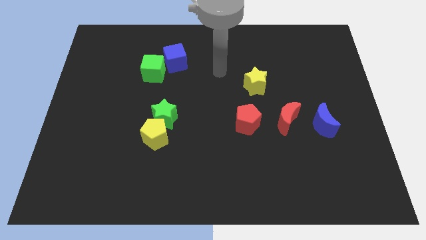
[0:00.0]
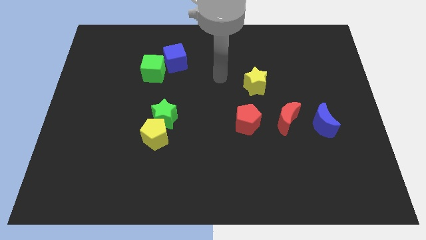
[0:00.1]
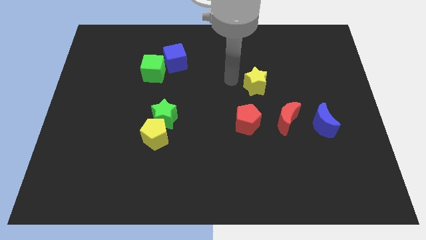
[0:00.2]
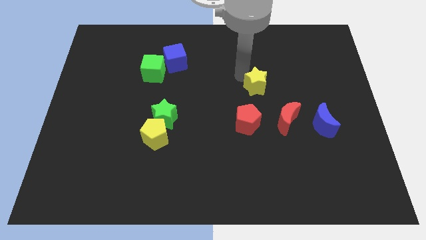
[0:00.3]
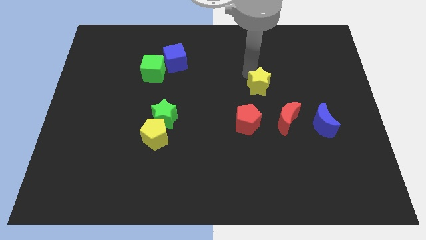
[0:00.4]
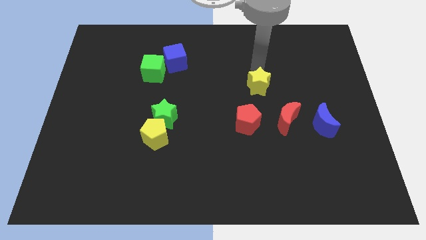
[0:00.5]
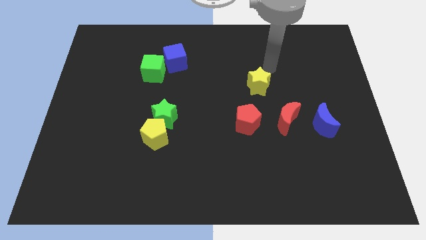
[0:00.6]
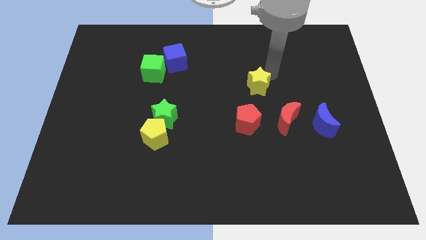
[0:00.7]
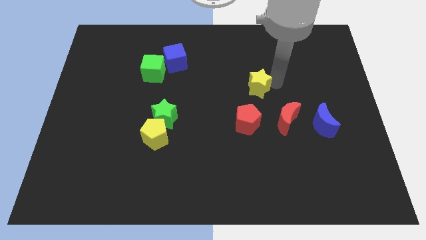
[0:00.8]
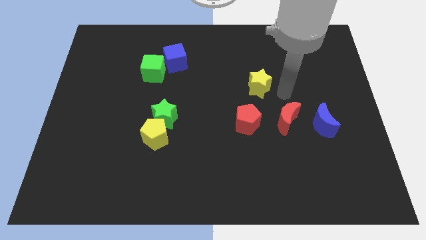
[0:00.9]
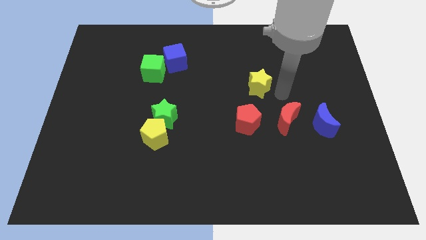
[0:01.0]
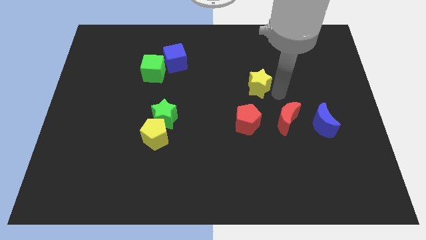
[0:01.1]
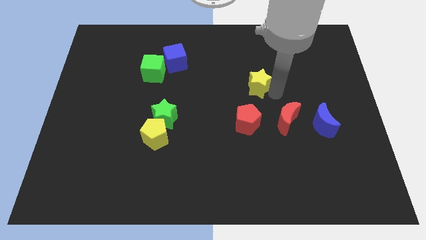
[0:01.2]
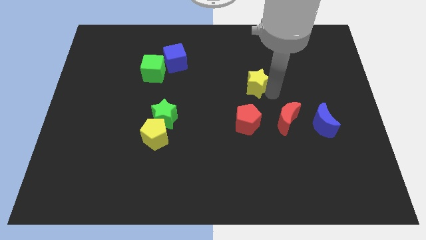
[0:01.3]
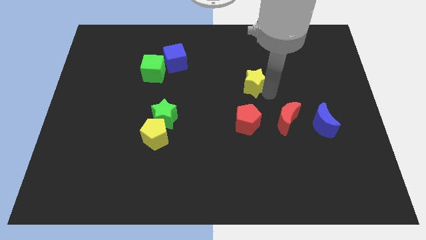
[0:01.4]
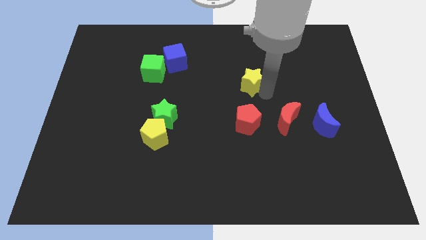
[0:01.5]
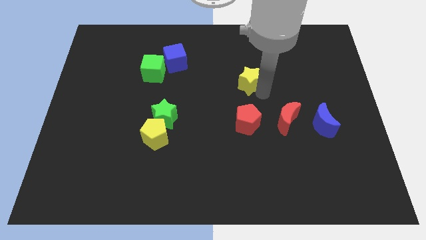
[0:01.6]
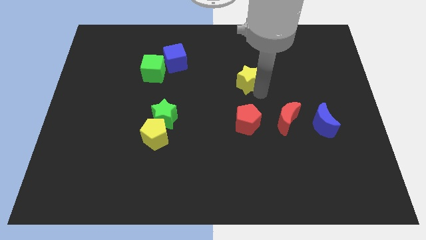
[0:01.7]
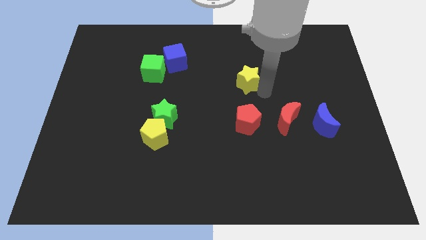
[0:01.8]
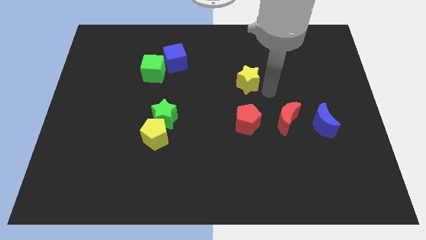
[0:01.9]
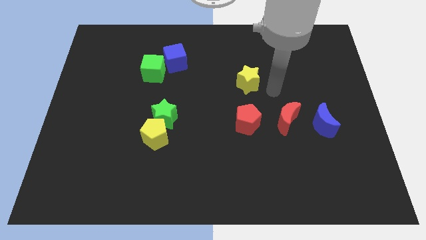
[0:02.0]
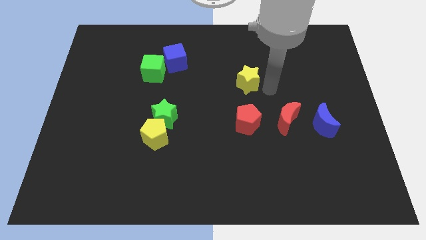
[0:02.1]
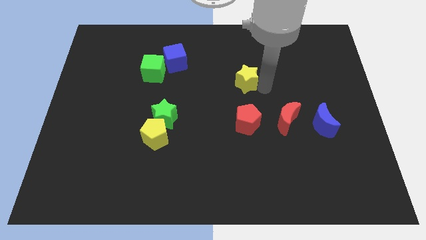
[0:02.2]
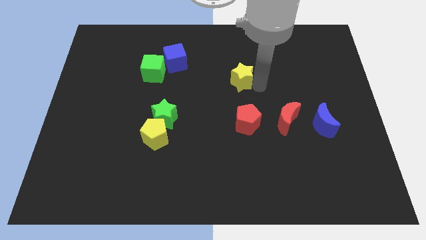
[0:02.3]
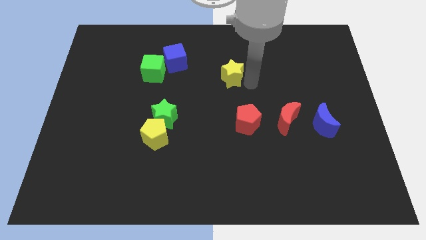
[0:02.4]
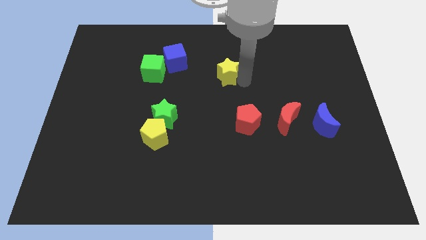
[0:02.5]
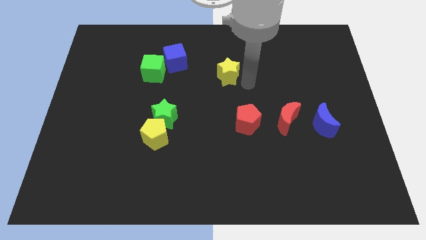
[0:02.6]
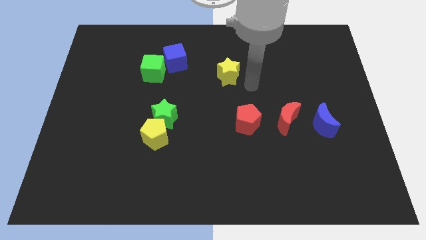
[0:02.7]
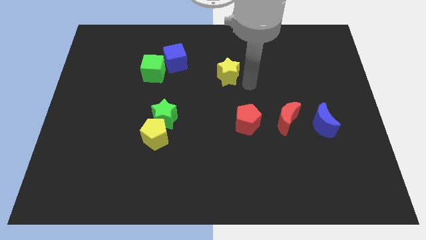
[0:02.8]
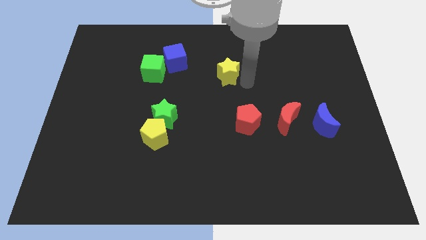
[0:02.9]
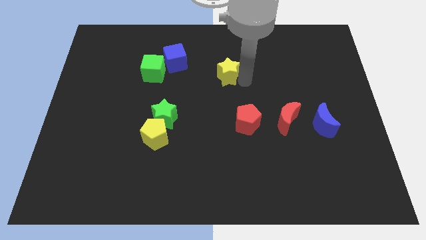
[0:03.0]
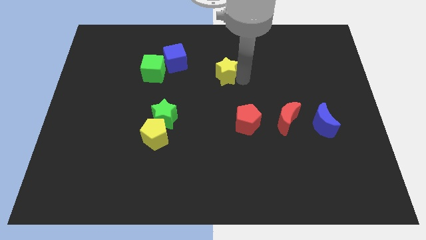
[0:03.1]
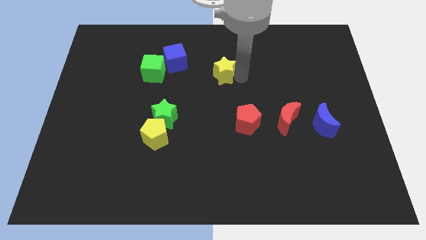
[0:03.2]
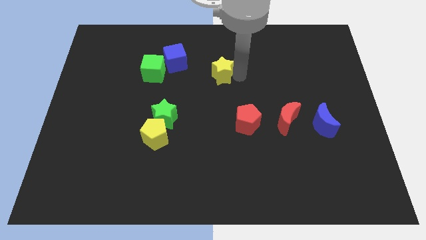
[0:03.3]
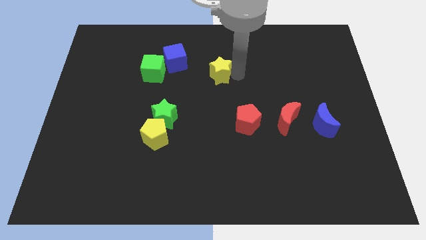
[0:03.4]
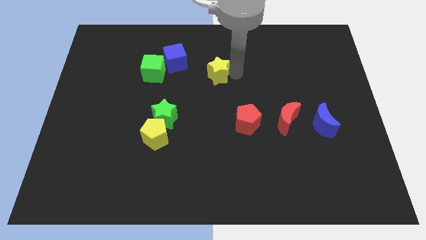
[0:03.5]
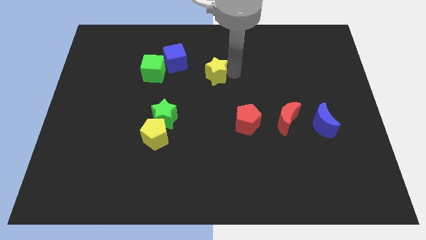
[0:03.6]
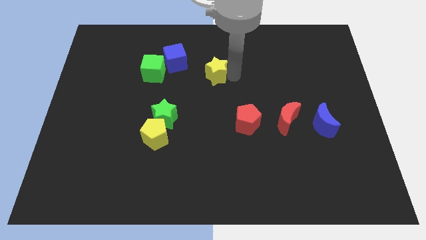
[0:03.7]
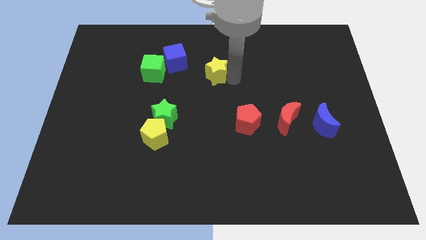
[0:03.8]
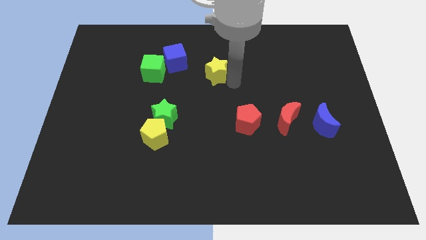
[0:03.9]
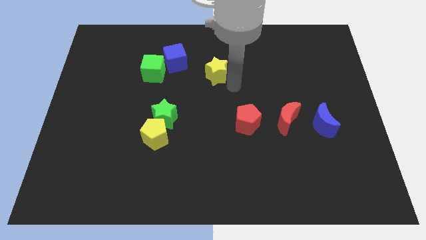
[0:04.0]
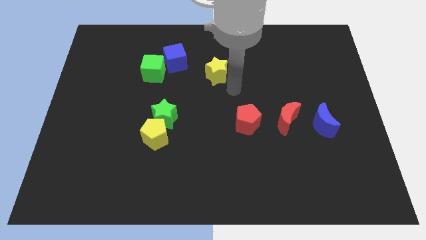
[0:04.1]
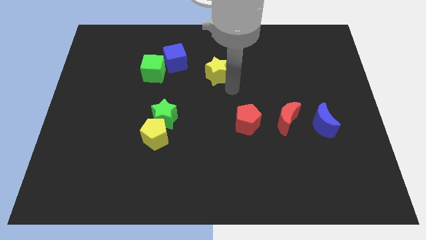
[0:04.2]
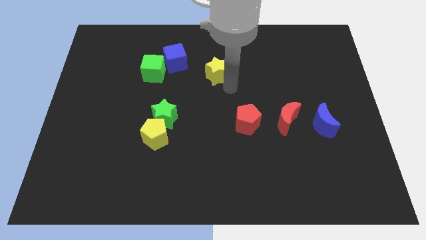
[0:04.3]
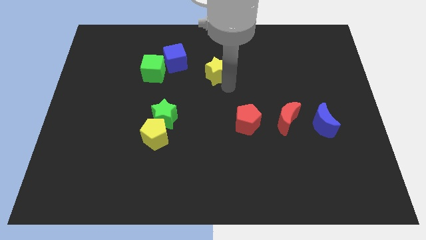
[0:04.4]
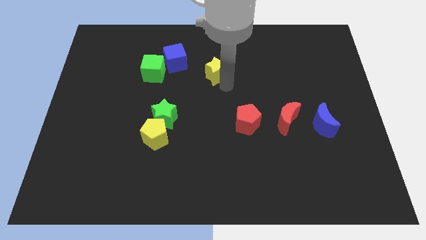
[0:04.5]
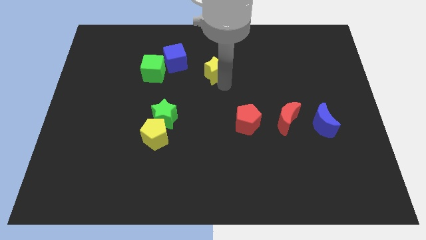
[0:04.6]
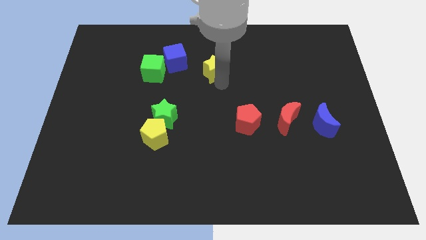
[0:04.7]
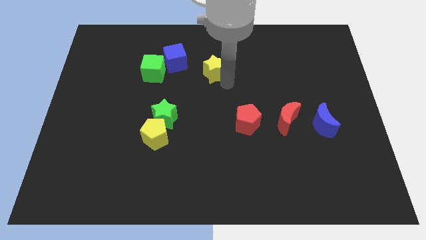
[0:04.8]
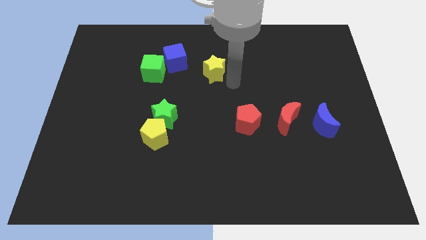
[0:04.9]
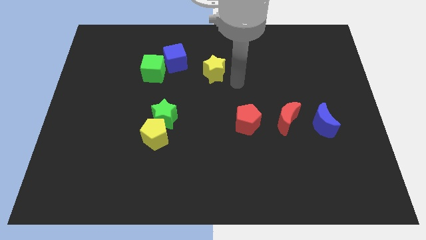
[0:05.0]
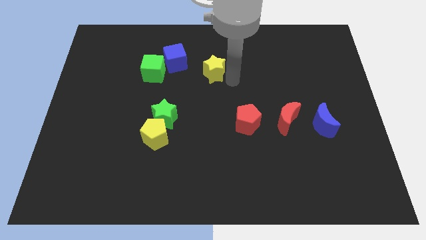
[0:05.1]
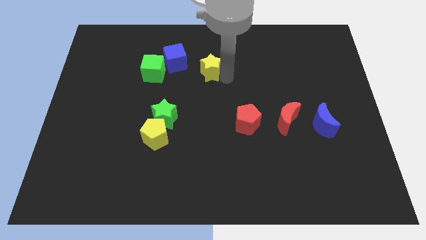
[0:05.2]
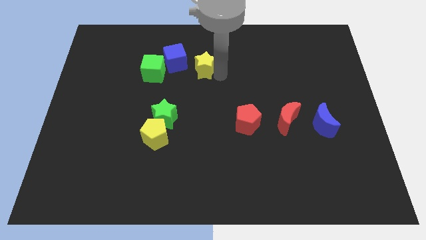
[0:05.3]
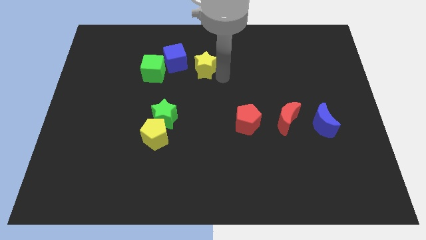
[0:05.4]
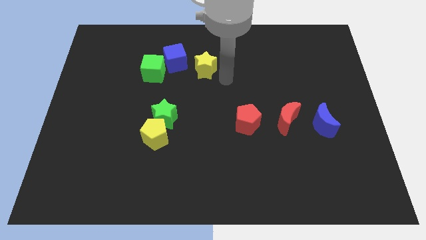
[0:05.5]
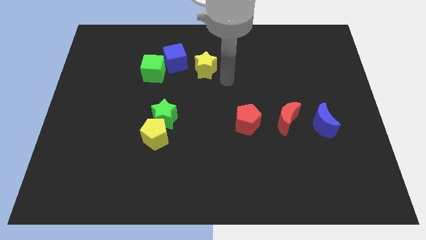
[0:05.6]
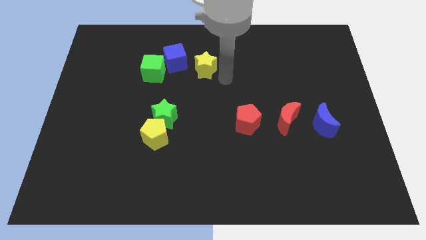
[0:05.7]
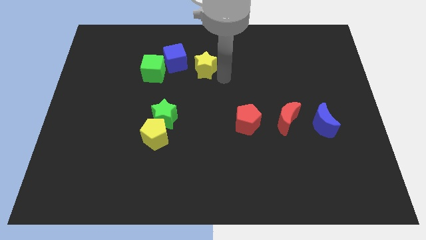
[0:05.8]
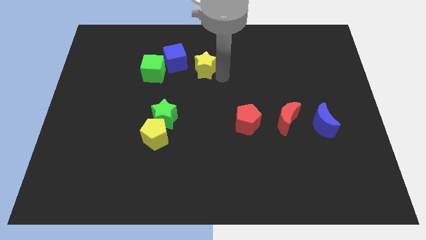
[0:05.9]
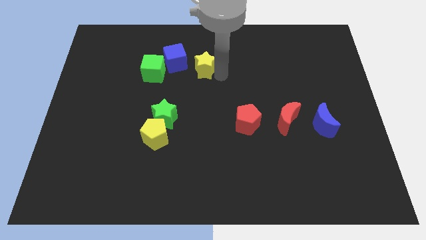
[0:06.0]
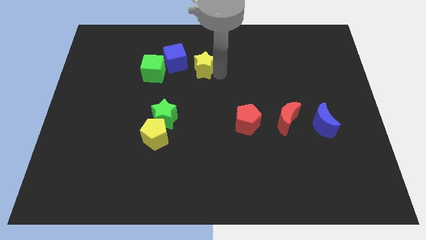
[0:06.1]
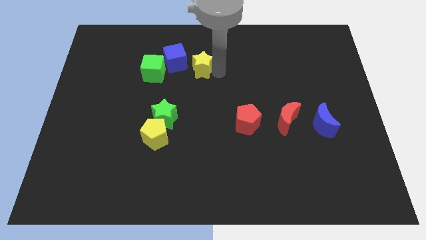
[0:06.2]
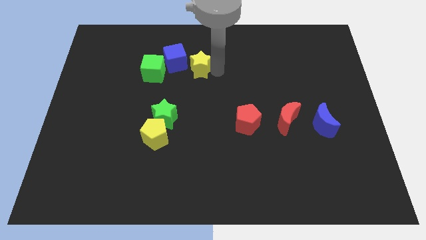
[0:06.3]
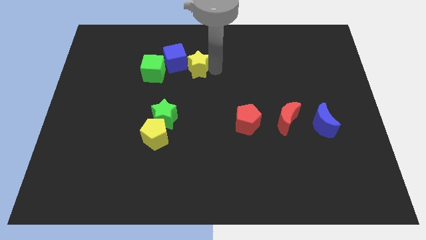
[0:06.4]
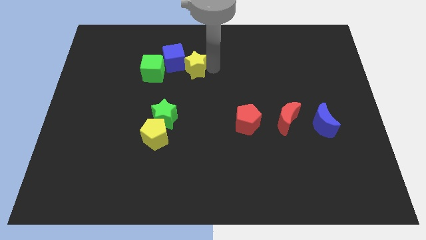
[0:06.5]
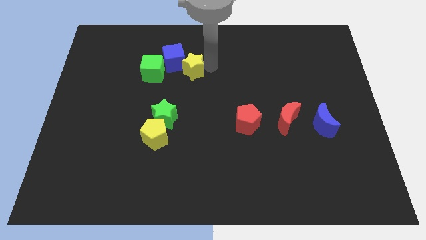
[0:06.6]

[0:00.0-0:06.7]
move the yellow star close to the blue cube

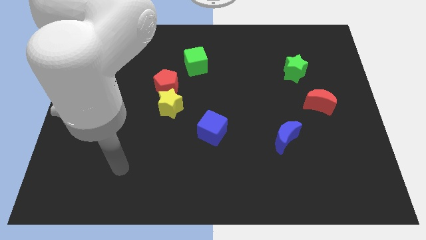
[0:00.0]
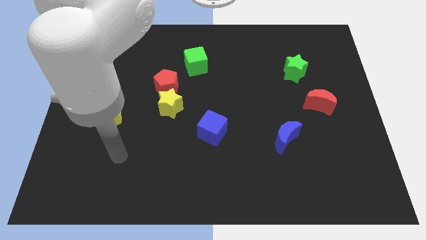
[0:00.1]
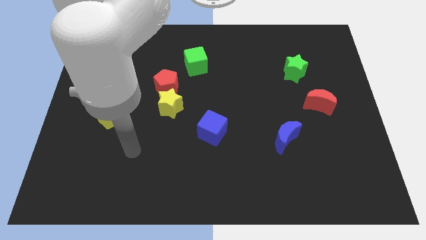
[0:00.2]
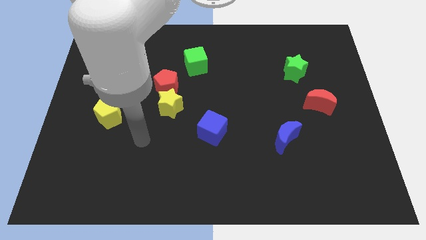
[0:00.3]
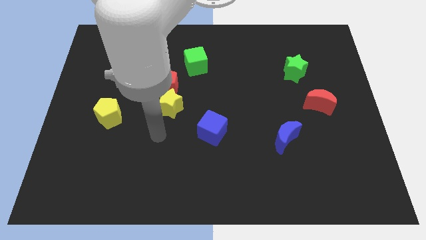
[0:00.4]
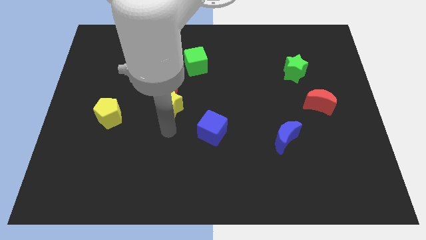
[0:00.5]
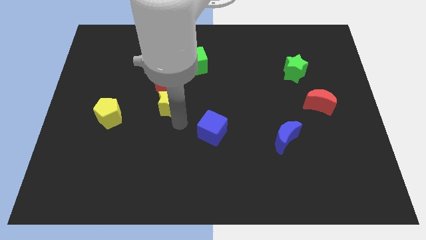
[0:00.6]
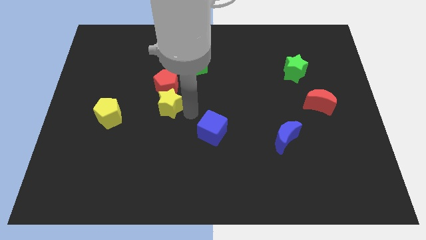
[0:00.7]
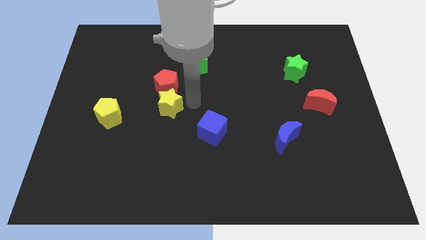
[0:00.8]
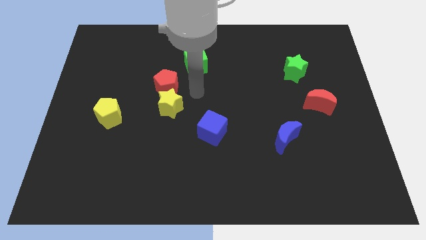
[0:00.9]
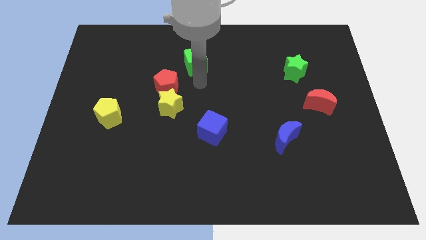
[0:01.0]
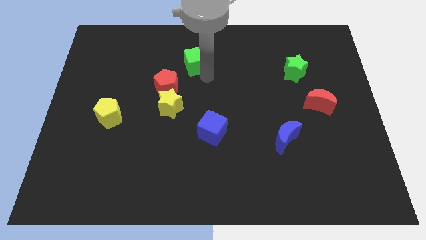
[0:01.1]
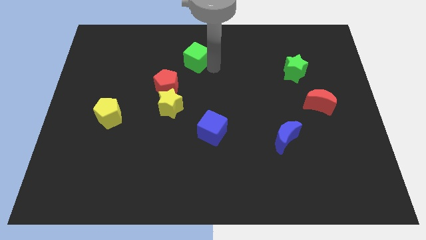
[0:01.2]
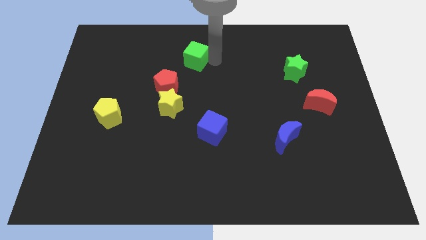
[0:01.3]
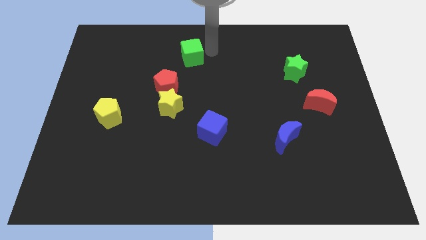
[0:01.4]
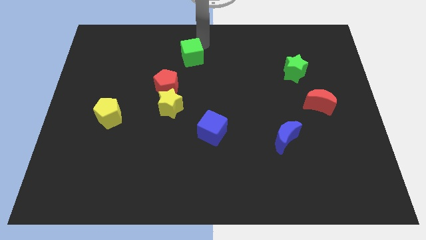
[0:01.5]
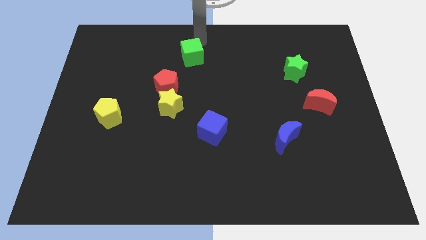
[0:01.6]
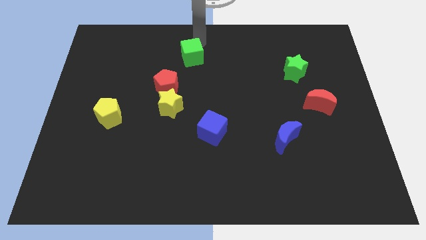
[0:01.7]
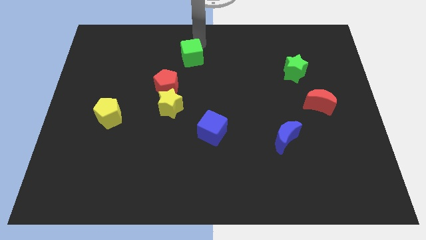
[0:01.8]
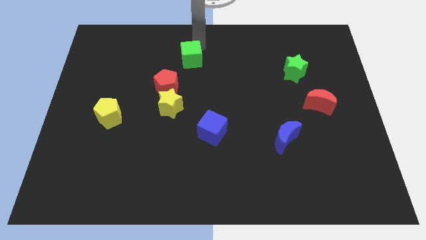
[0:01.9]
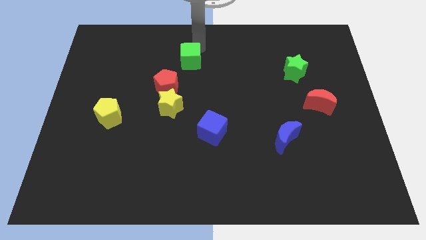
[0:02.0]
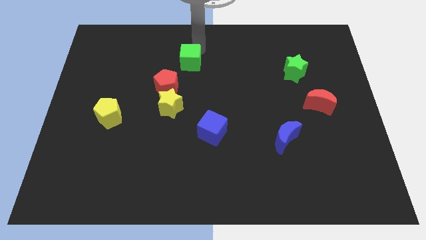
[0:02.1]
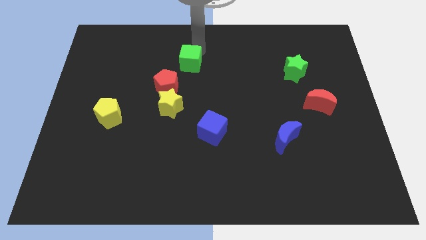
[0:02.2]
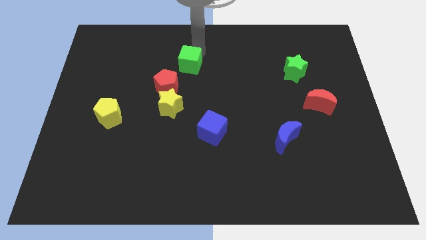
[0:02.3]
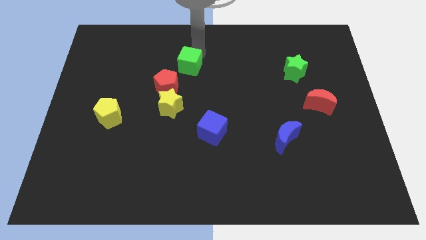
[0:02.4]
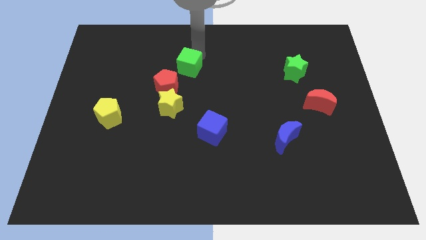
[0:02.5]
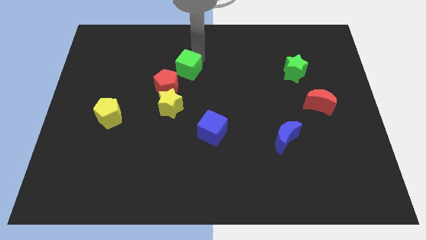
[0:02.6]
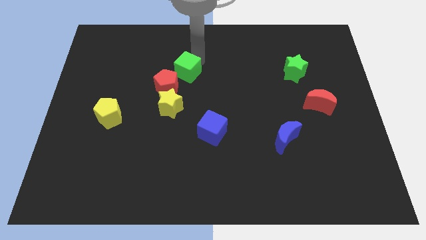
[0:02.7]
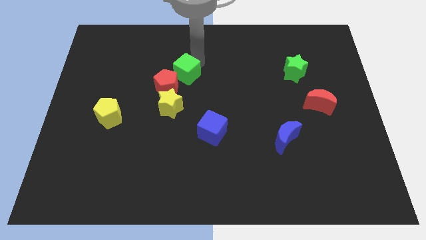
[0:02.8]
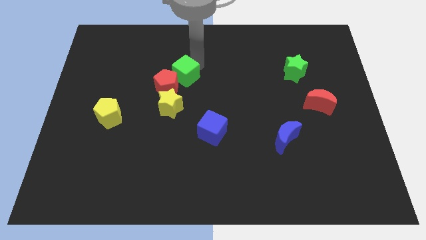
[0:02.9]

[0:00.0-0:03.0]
move the green cube towards the red pentagon
